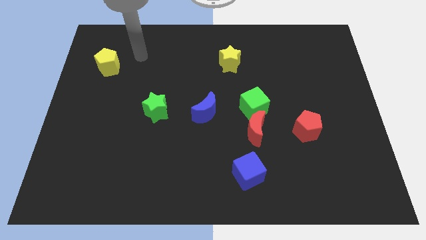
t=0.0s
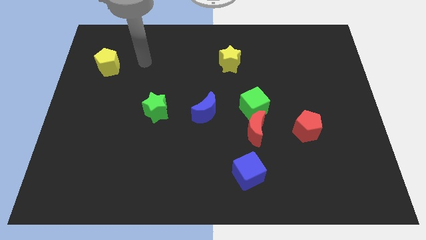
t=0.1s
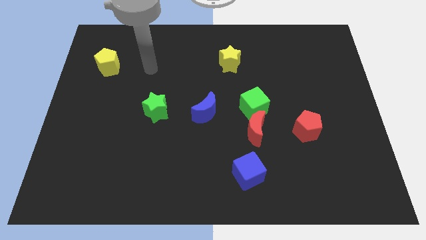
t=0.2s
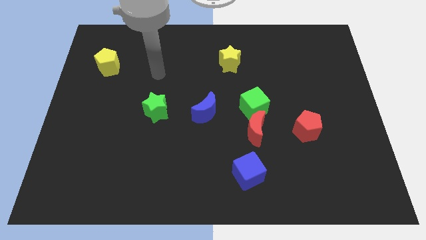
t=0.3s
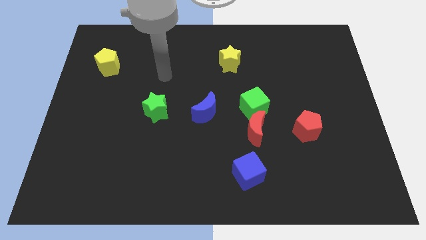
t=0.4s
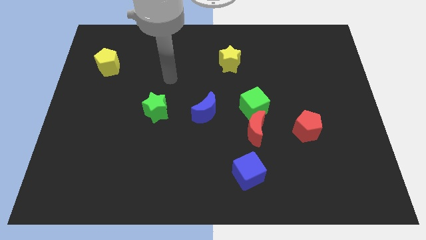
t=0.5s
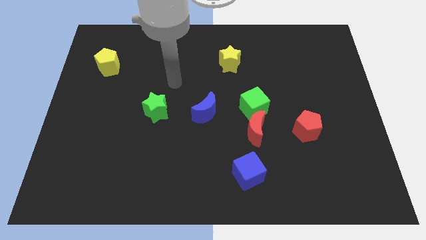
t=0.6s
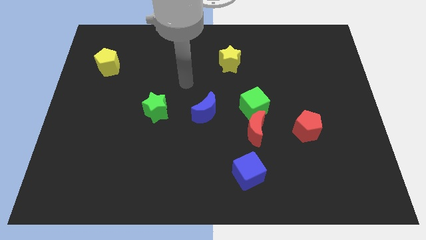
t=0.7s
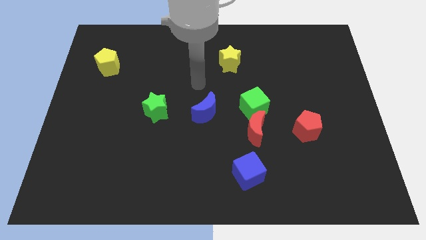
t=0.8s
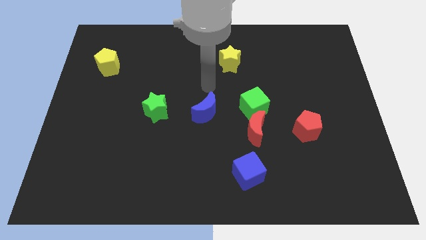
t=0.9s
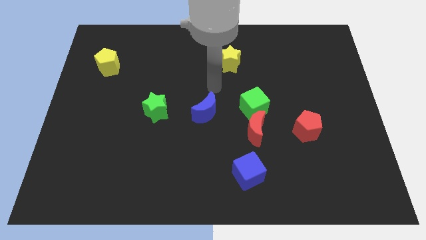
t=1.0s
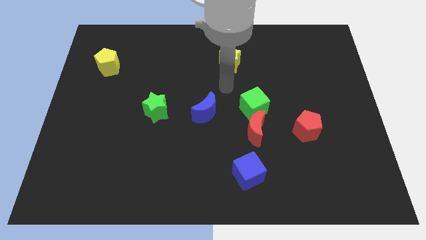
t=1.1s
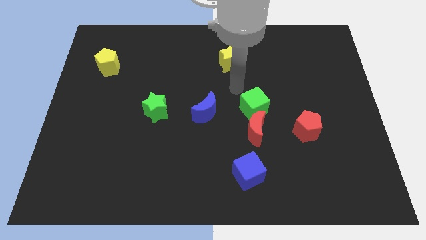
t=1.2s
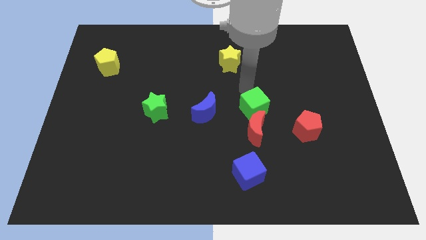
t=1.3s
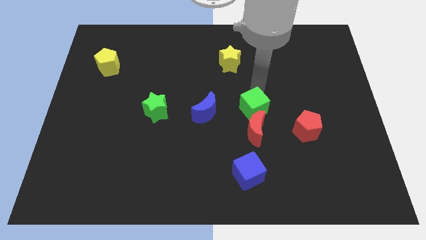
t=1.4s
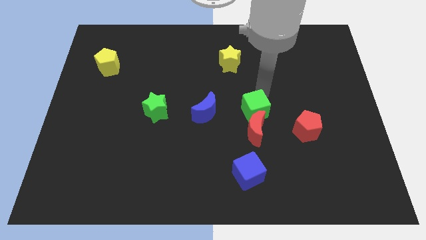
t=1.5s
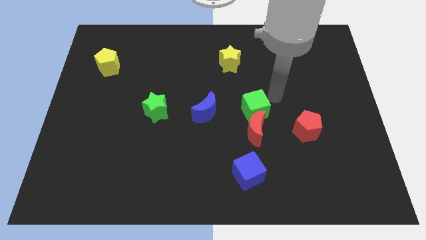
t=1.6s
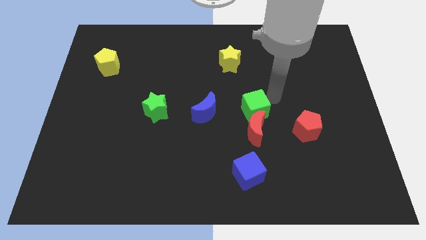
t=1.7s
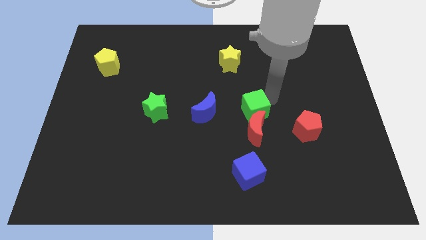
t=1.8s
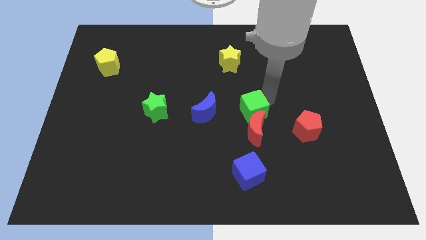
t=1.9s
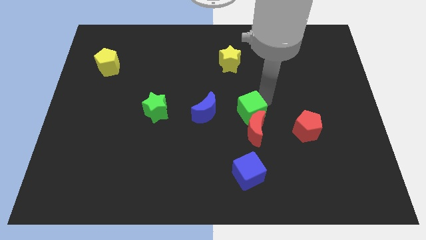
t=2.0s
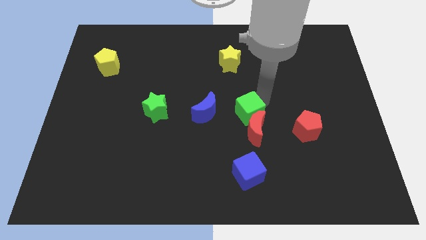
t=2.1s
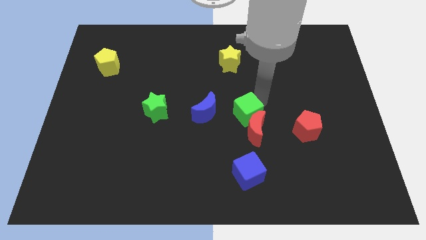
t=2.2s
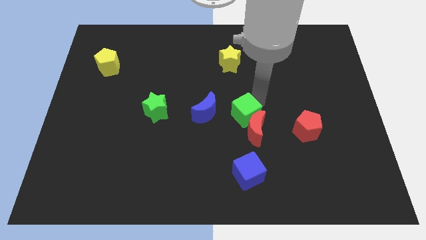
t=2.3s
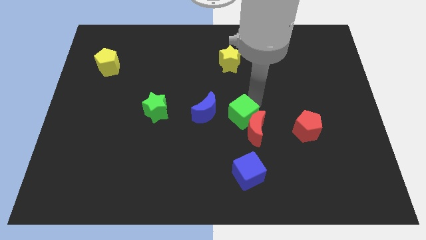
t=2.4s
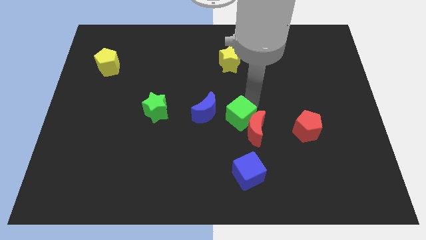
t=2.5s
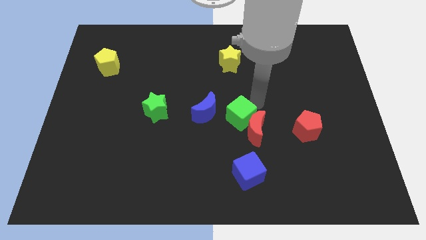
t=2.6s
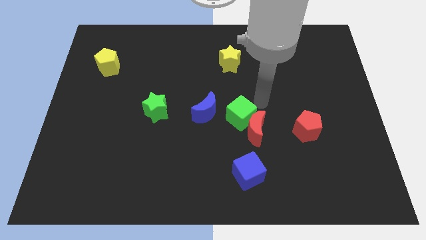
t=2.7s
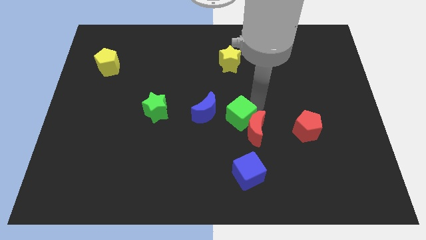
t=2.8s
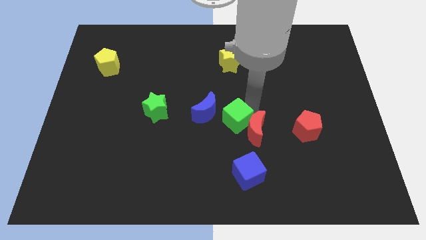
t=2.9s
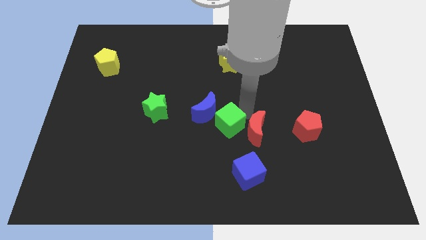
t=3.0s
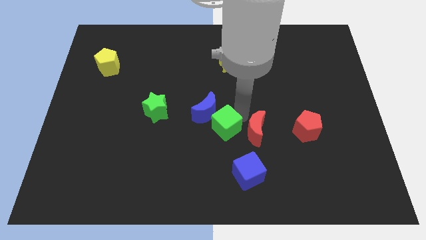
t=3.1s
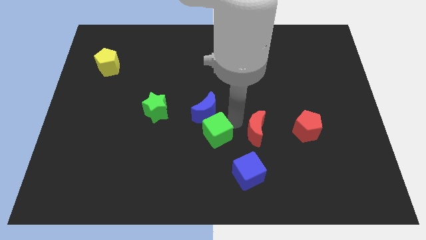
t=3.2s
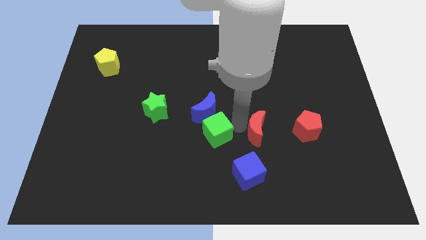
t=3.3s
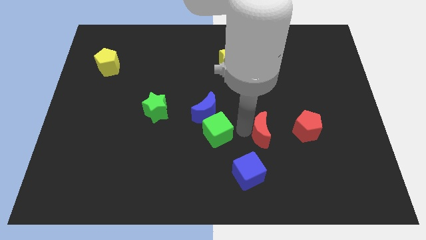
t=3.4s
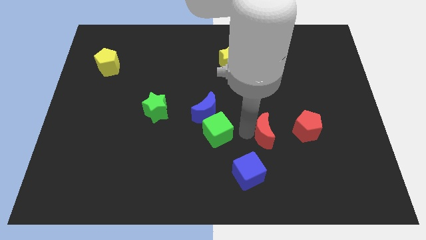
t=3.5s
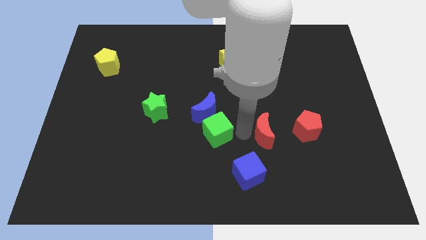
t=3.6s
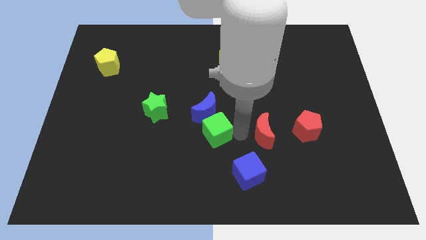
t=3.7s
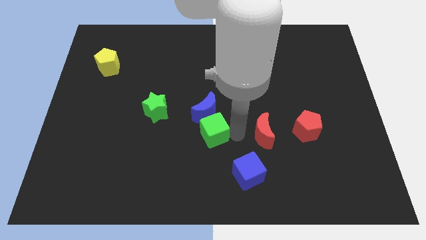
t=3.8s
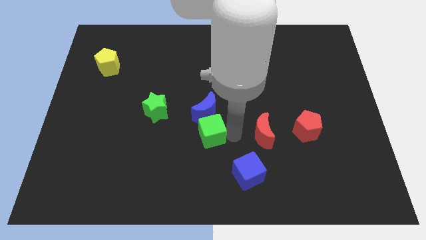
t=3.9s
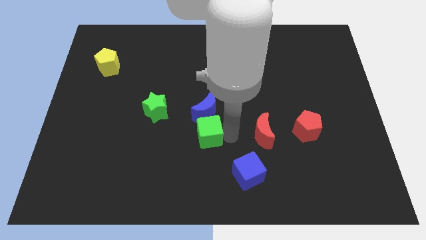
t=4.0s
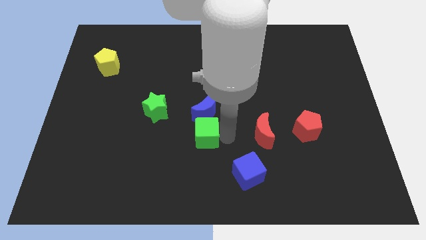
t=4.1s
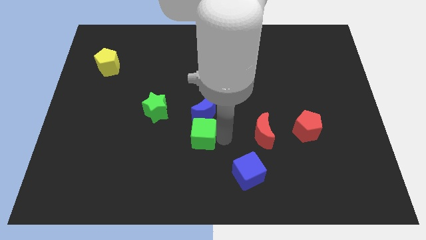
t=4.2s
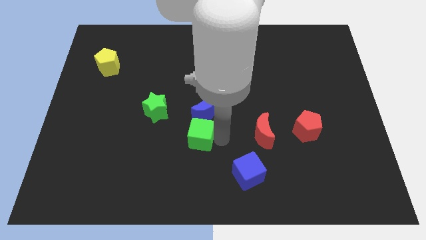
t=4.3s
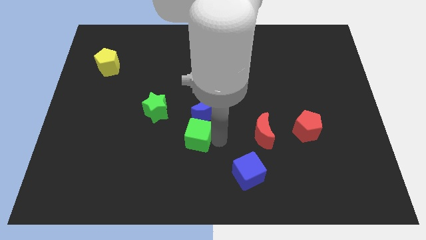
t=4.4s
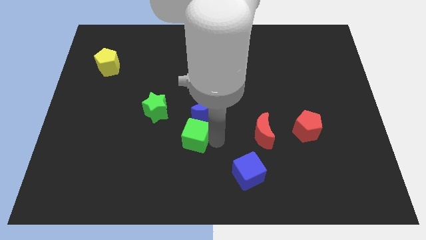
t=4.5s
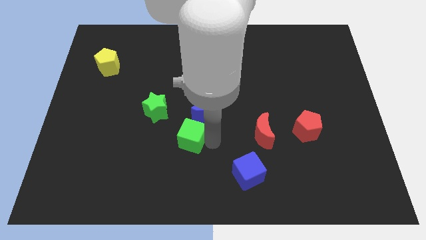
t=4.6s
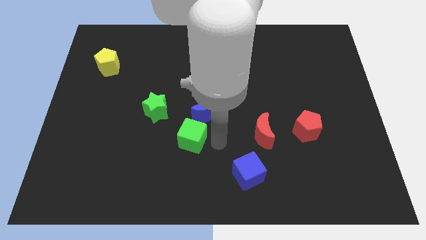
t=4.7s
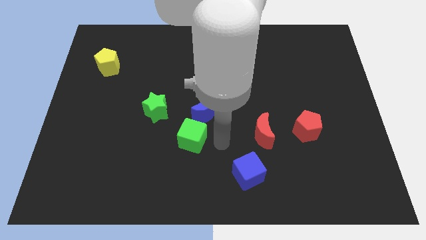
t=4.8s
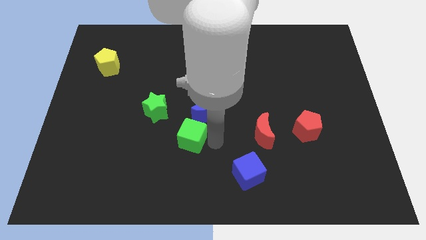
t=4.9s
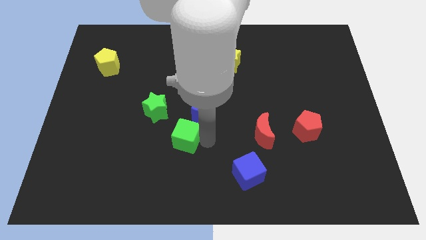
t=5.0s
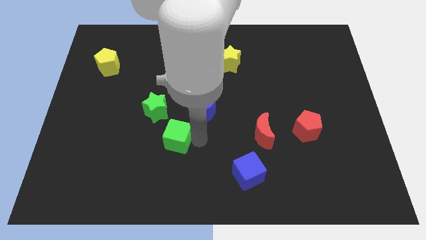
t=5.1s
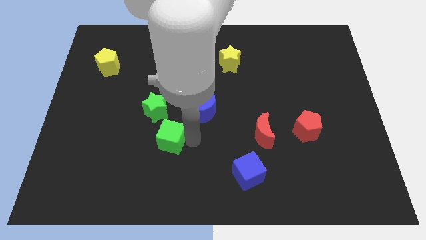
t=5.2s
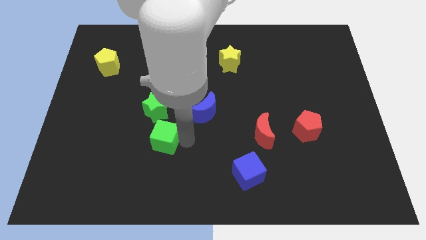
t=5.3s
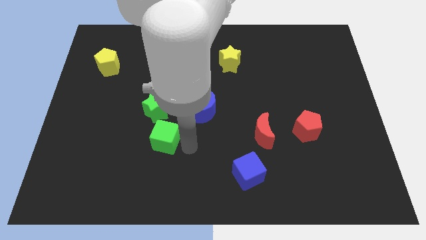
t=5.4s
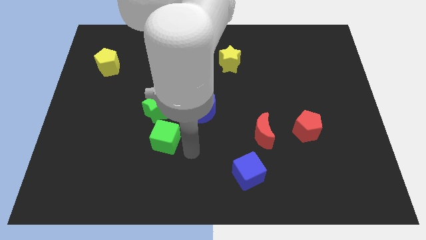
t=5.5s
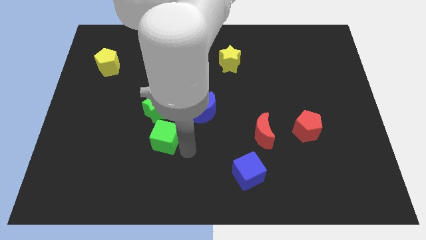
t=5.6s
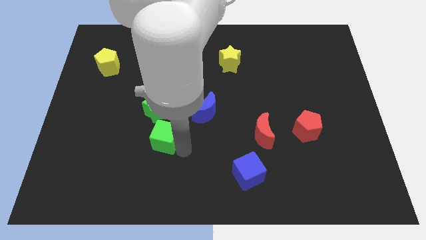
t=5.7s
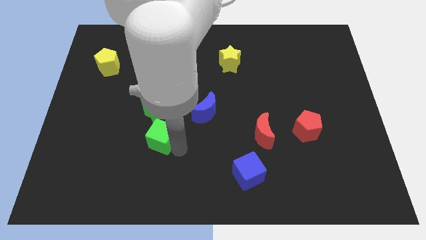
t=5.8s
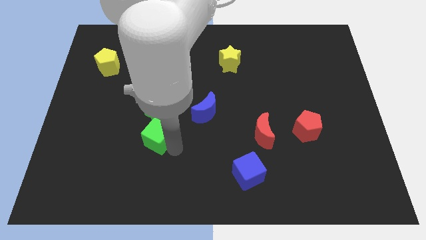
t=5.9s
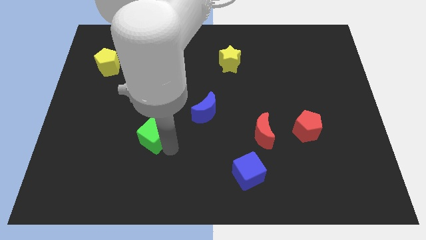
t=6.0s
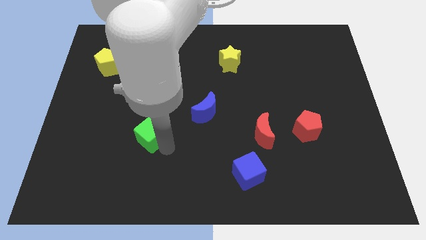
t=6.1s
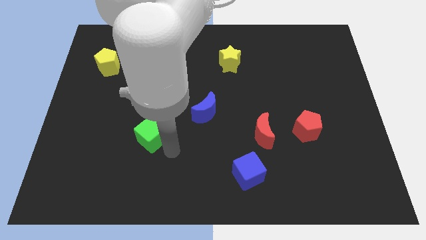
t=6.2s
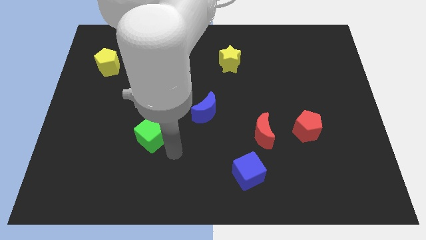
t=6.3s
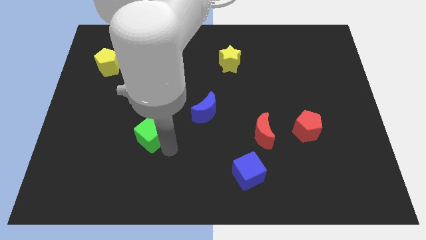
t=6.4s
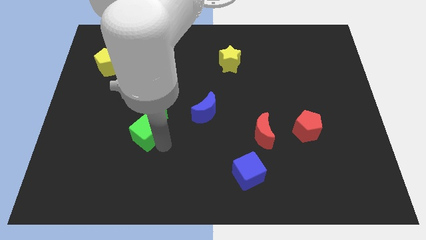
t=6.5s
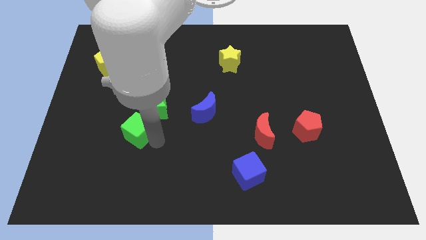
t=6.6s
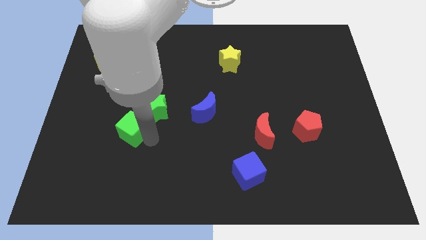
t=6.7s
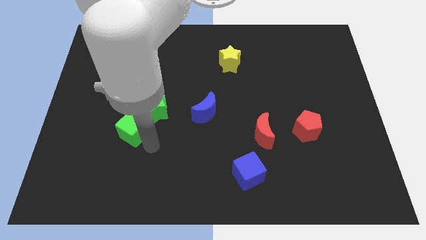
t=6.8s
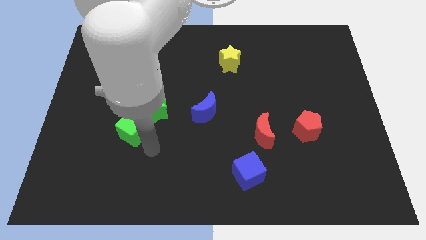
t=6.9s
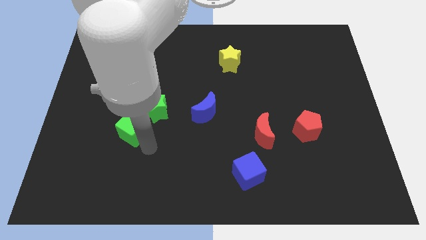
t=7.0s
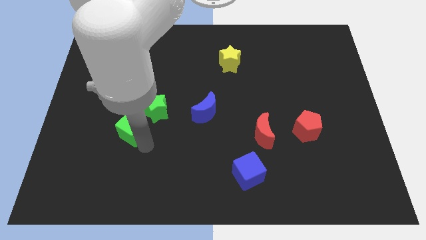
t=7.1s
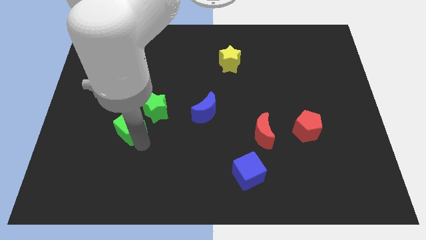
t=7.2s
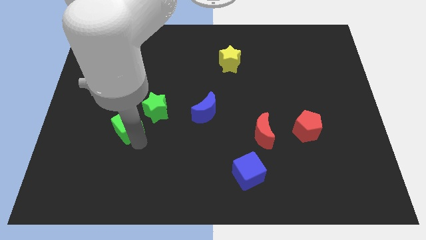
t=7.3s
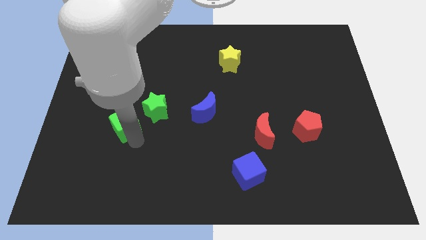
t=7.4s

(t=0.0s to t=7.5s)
push the green cube to the left side of the green star
